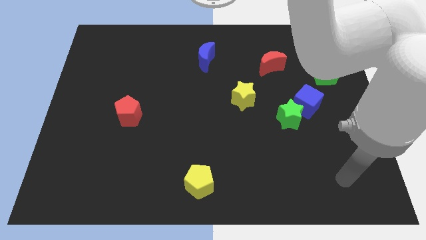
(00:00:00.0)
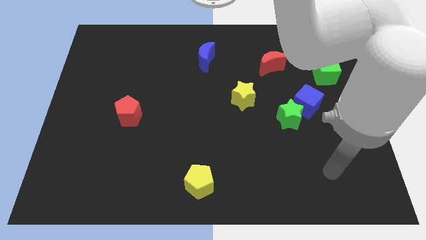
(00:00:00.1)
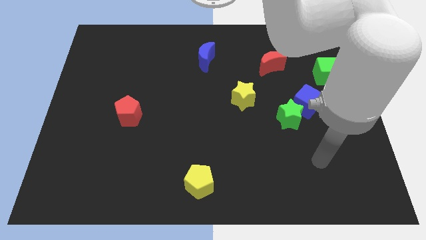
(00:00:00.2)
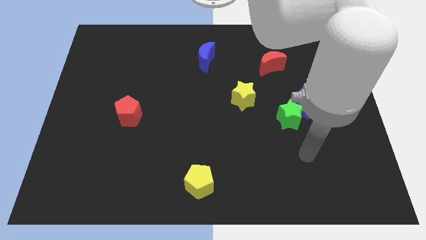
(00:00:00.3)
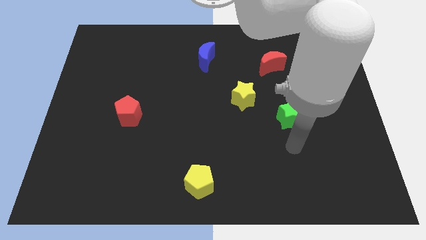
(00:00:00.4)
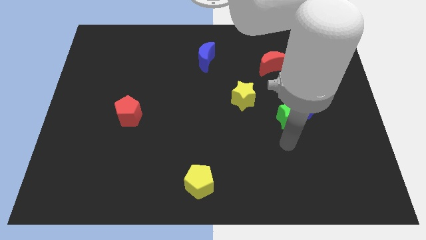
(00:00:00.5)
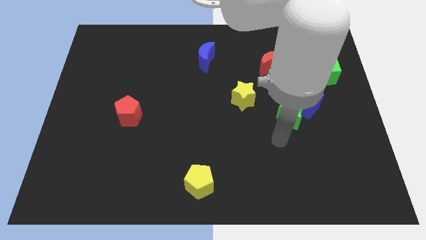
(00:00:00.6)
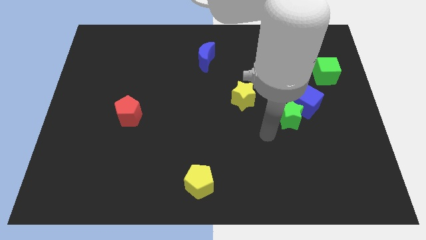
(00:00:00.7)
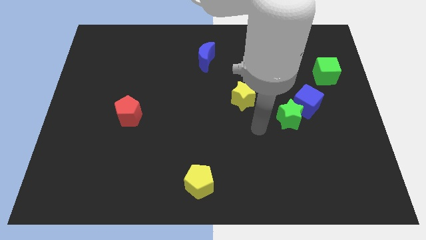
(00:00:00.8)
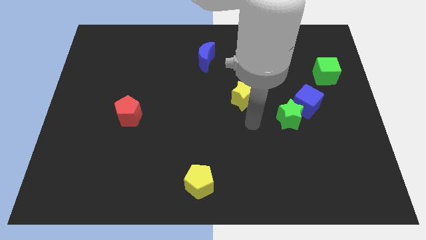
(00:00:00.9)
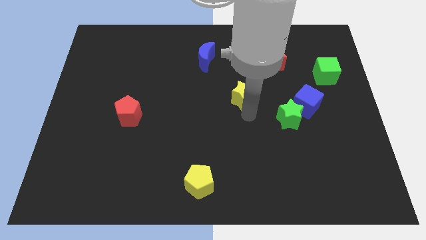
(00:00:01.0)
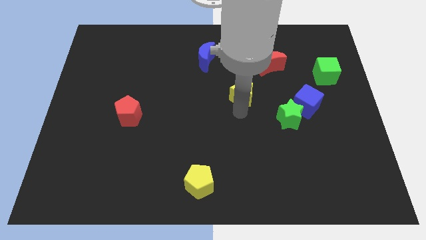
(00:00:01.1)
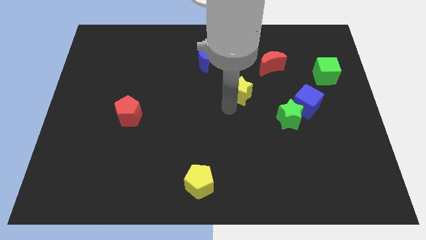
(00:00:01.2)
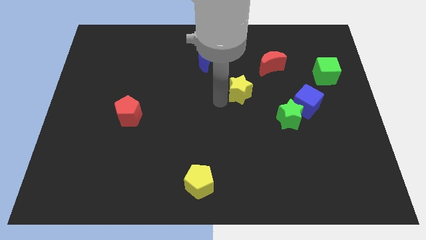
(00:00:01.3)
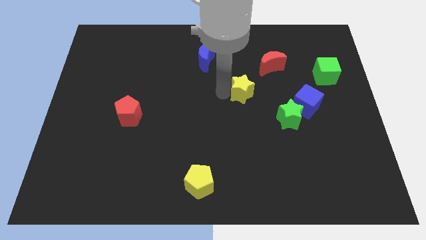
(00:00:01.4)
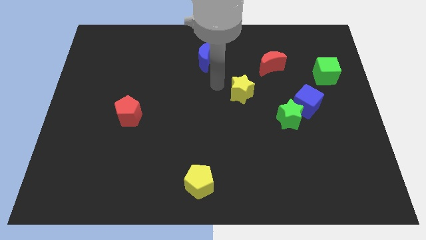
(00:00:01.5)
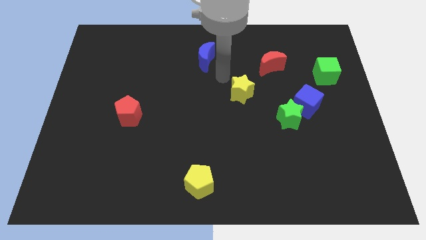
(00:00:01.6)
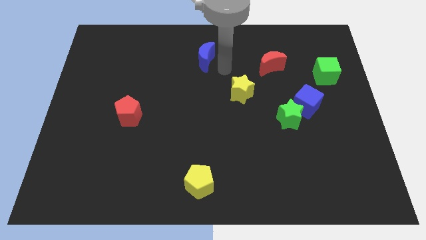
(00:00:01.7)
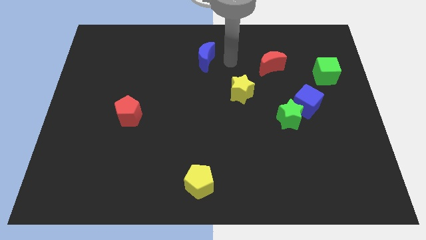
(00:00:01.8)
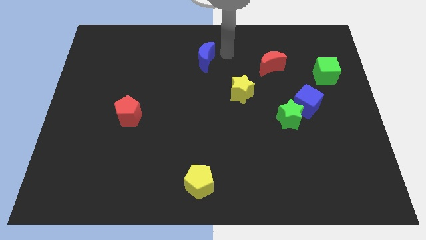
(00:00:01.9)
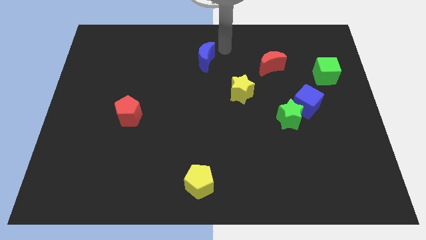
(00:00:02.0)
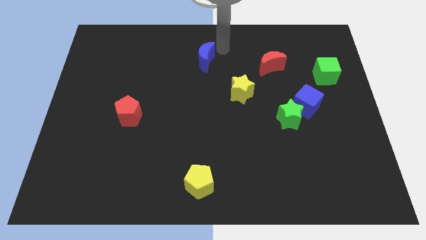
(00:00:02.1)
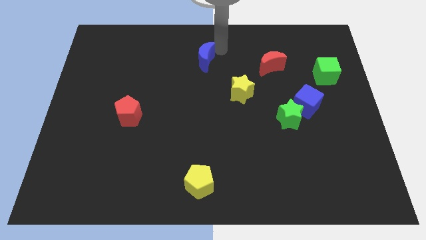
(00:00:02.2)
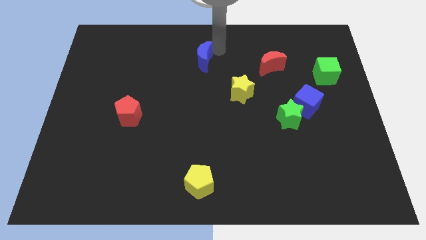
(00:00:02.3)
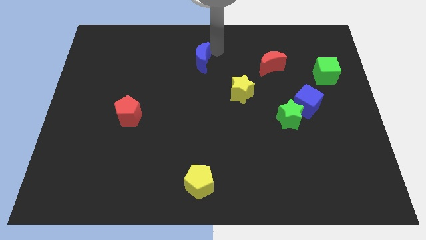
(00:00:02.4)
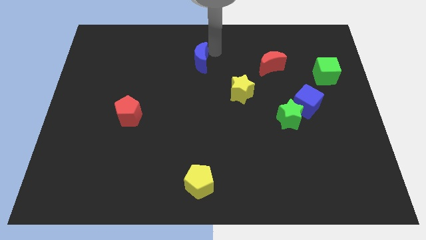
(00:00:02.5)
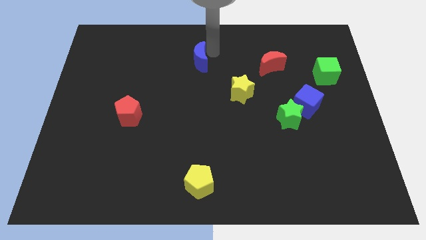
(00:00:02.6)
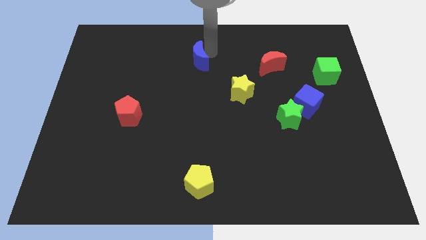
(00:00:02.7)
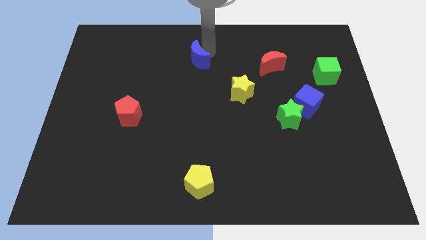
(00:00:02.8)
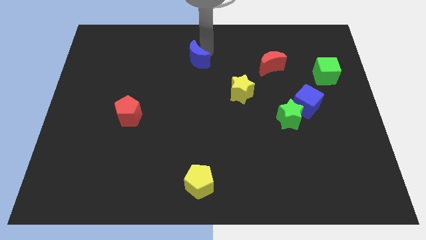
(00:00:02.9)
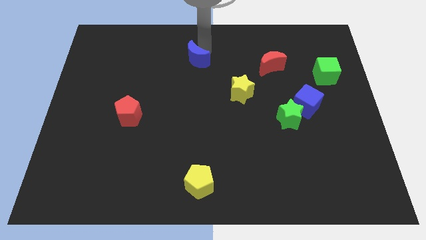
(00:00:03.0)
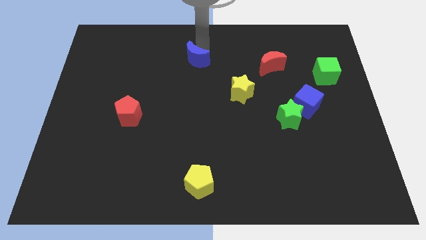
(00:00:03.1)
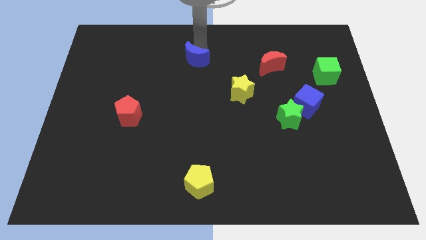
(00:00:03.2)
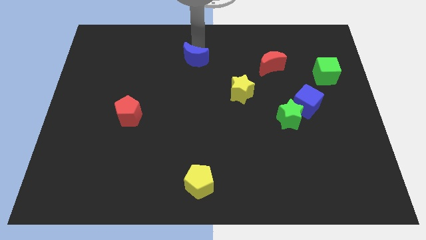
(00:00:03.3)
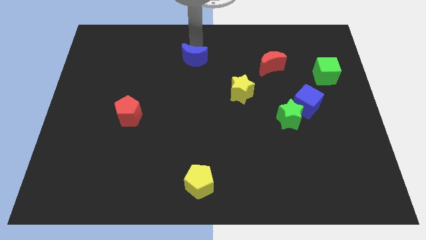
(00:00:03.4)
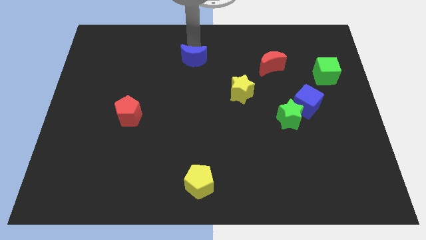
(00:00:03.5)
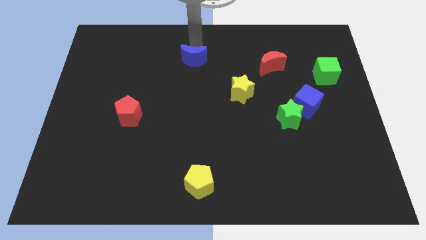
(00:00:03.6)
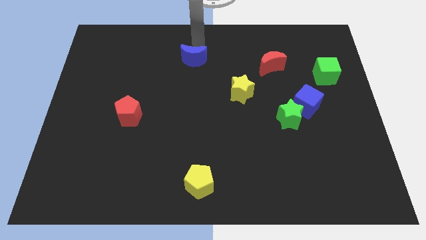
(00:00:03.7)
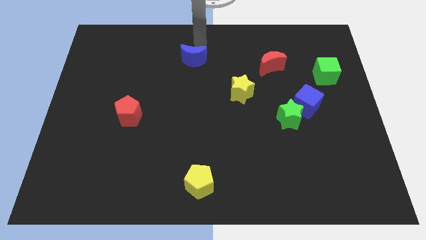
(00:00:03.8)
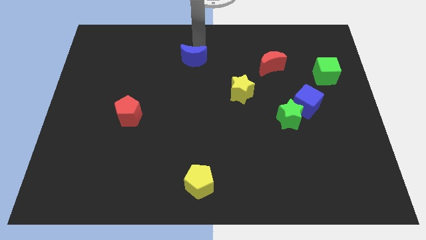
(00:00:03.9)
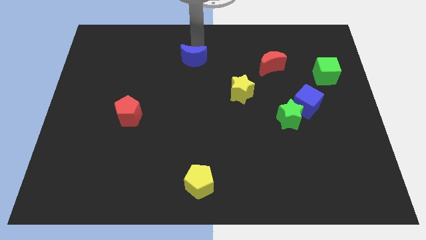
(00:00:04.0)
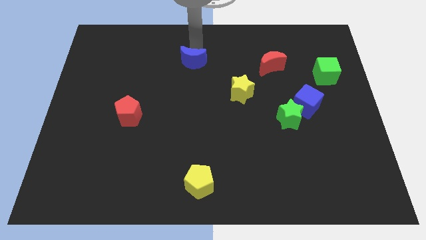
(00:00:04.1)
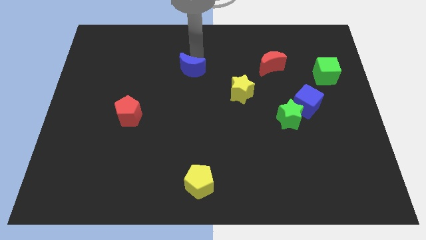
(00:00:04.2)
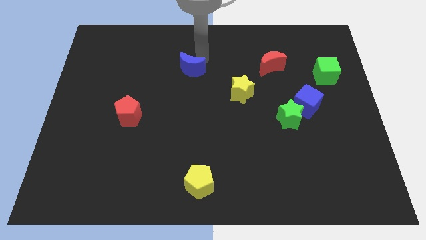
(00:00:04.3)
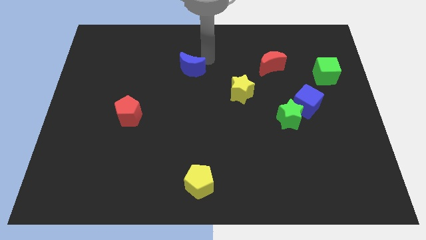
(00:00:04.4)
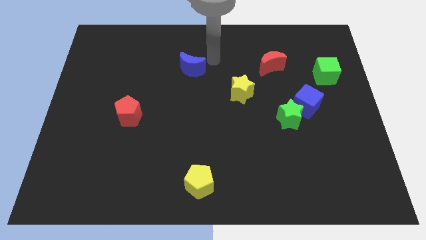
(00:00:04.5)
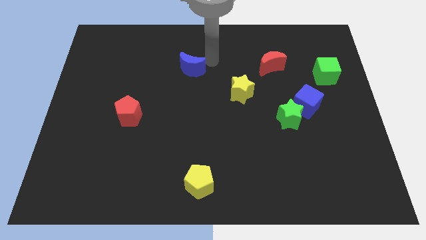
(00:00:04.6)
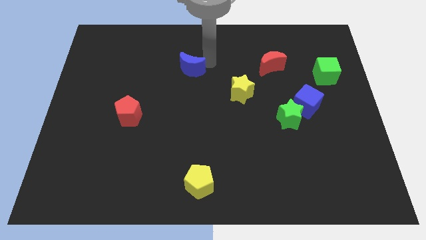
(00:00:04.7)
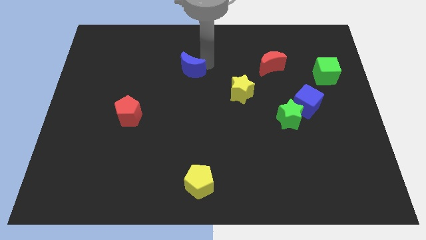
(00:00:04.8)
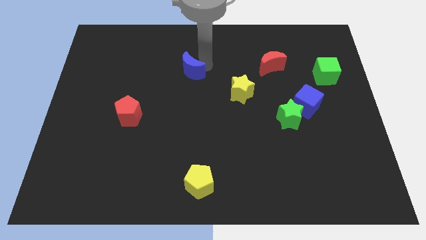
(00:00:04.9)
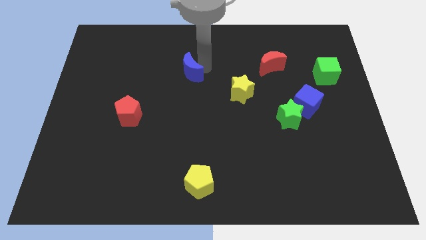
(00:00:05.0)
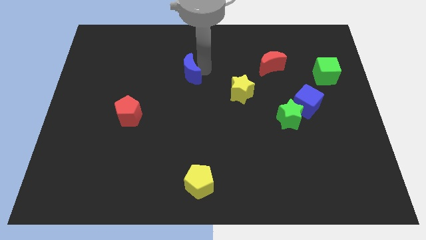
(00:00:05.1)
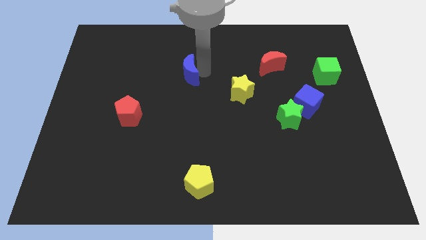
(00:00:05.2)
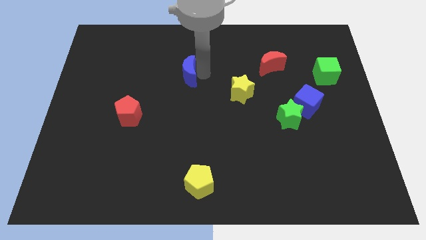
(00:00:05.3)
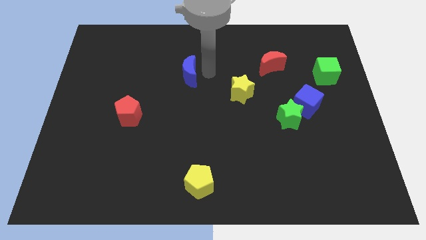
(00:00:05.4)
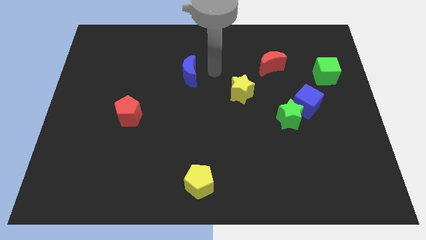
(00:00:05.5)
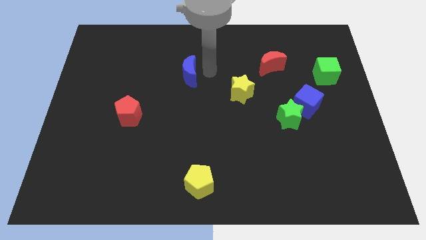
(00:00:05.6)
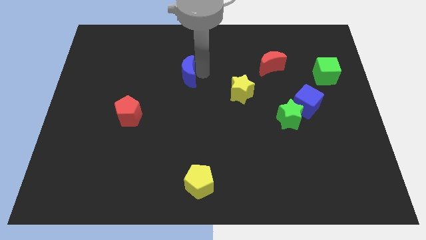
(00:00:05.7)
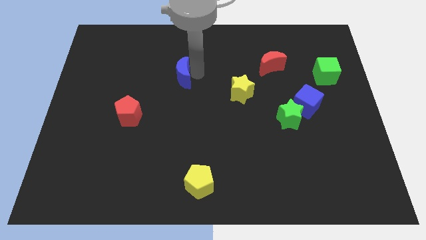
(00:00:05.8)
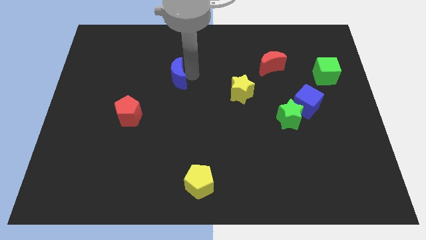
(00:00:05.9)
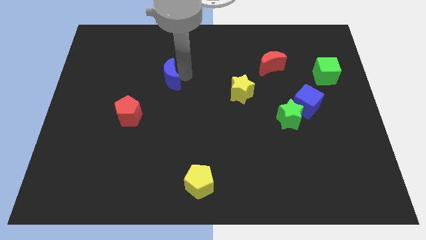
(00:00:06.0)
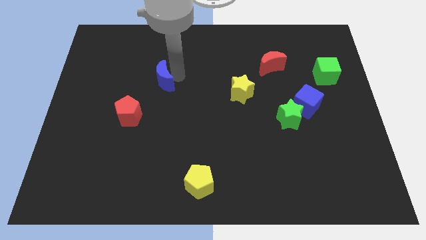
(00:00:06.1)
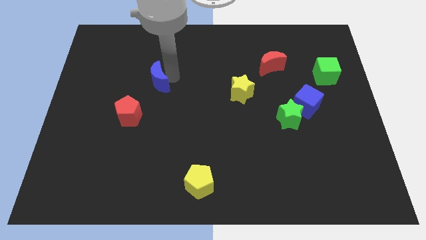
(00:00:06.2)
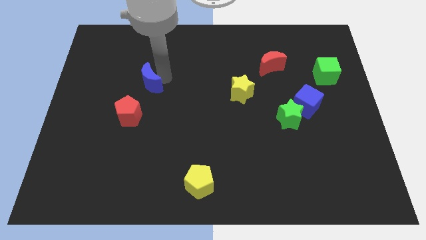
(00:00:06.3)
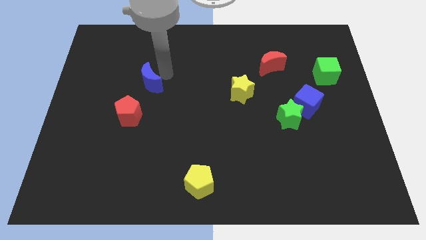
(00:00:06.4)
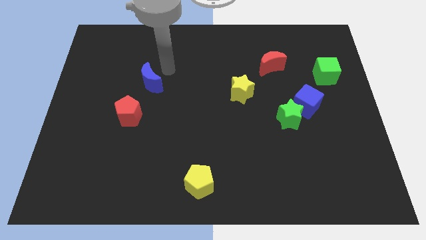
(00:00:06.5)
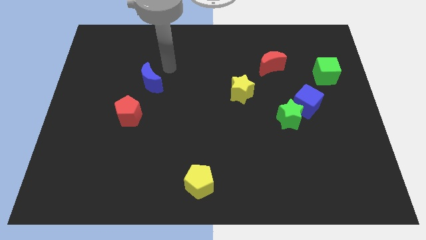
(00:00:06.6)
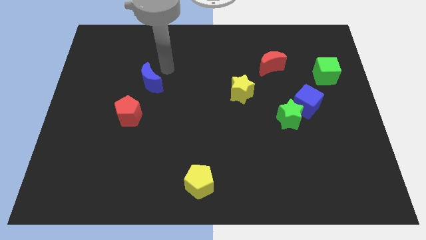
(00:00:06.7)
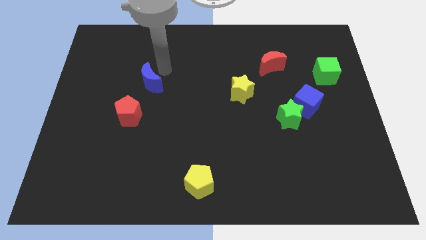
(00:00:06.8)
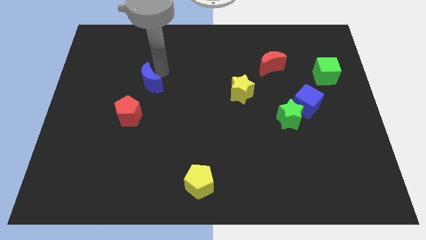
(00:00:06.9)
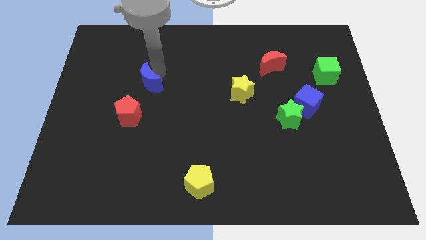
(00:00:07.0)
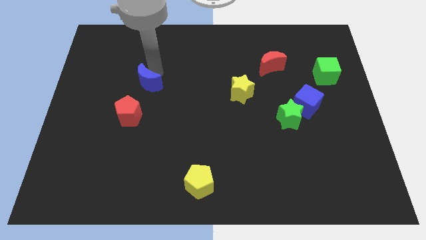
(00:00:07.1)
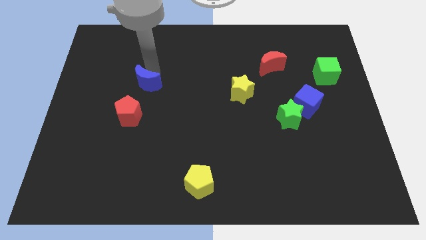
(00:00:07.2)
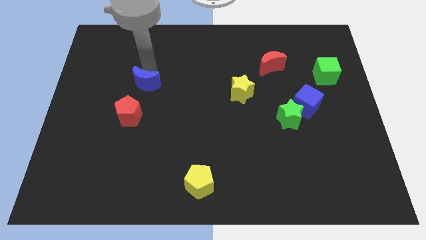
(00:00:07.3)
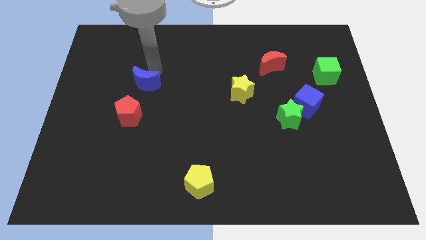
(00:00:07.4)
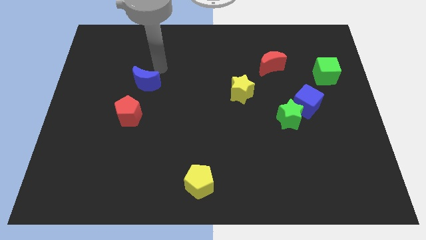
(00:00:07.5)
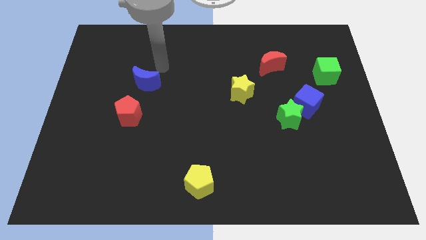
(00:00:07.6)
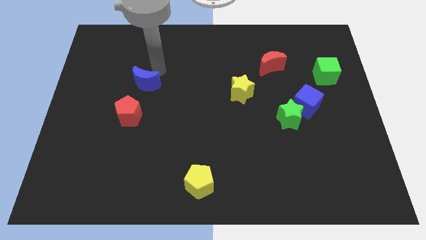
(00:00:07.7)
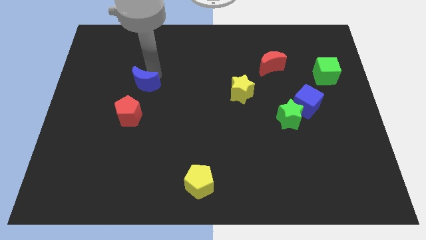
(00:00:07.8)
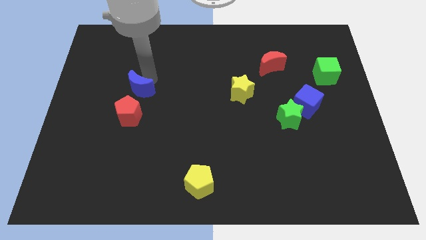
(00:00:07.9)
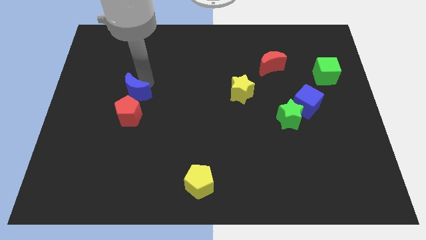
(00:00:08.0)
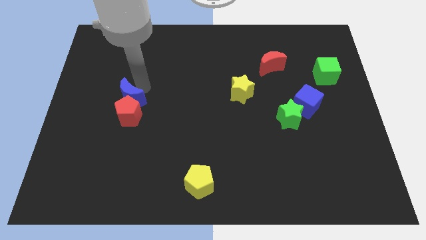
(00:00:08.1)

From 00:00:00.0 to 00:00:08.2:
slide the blue moon downwards and then to the left
